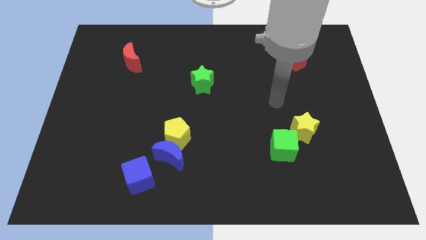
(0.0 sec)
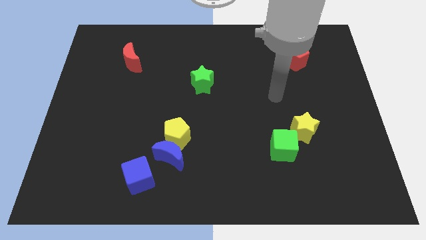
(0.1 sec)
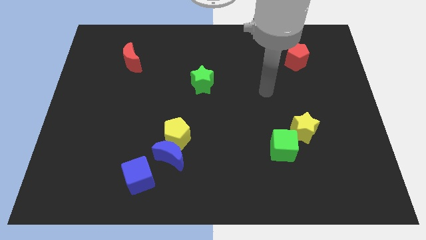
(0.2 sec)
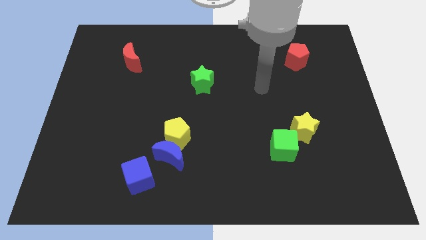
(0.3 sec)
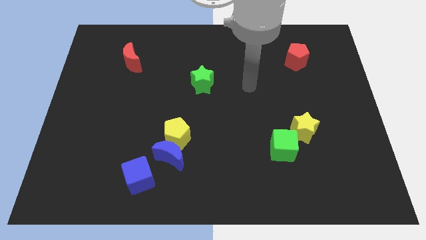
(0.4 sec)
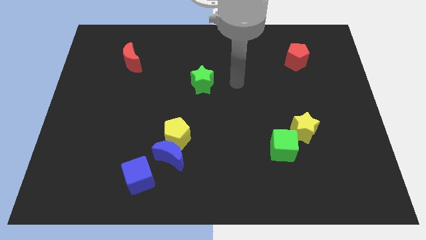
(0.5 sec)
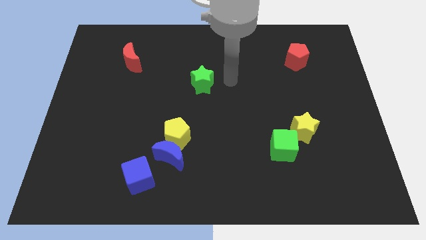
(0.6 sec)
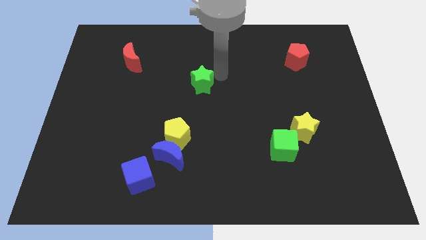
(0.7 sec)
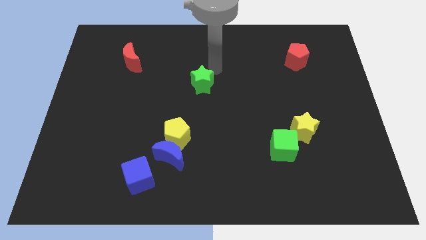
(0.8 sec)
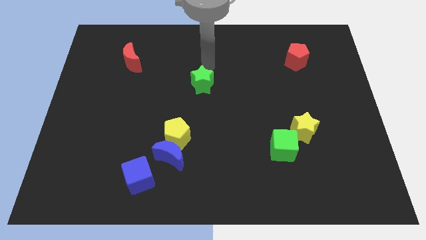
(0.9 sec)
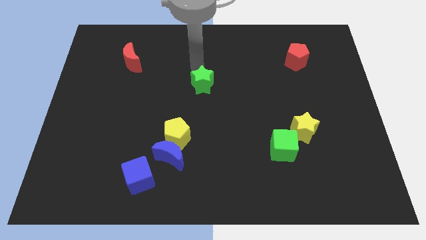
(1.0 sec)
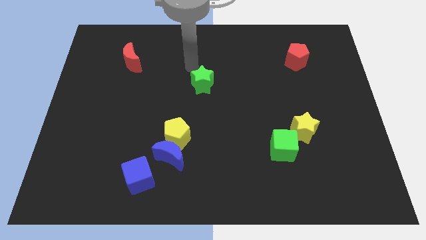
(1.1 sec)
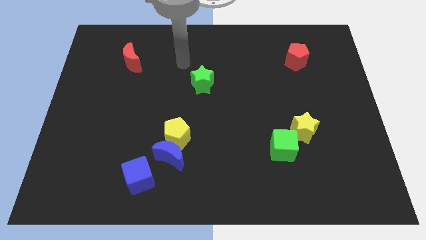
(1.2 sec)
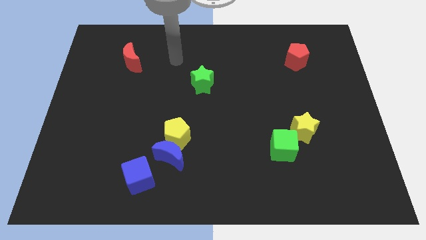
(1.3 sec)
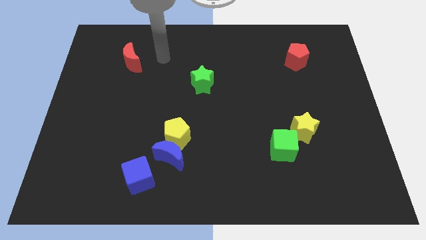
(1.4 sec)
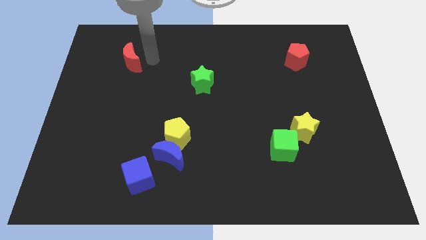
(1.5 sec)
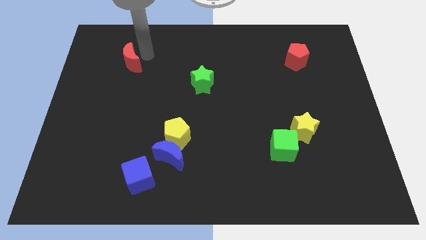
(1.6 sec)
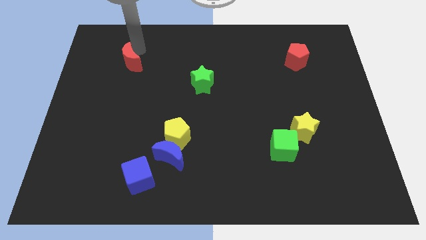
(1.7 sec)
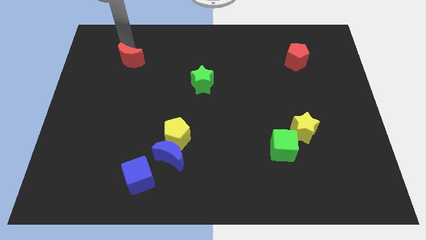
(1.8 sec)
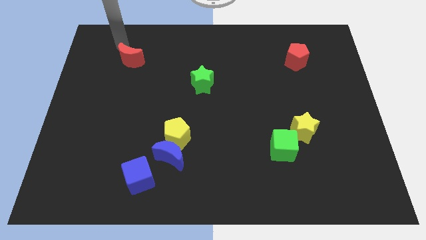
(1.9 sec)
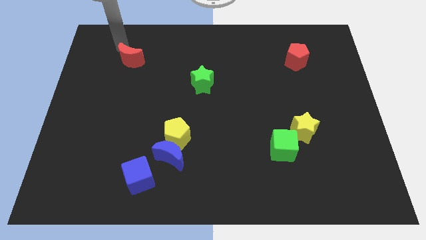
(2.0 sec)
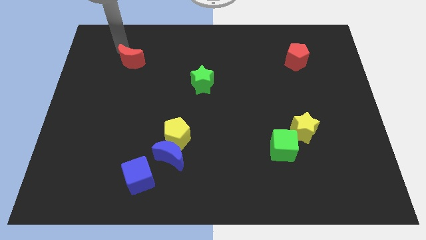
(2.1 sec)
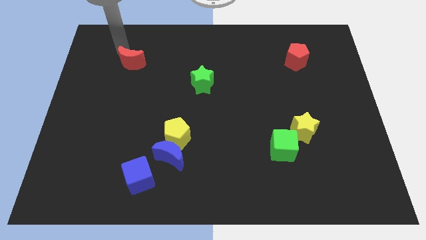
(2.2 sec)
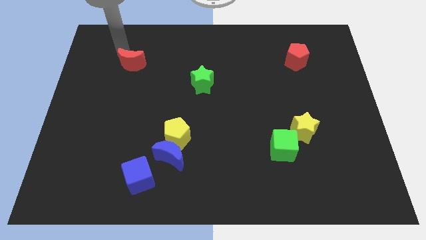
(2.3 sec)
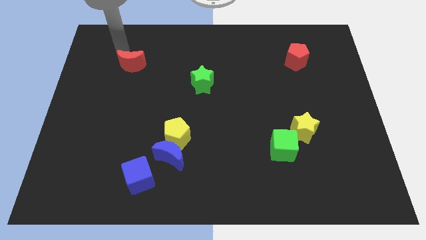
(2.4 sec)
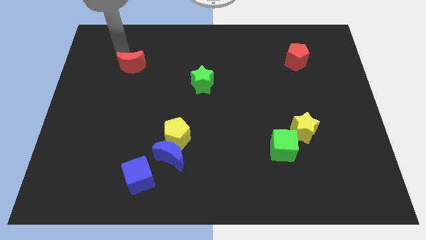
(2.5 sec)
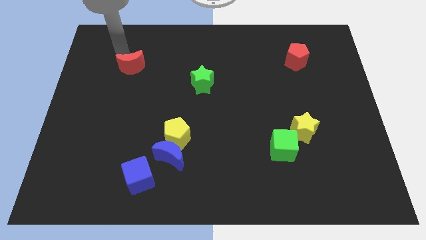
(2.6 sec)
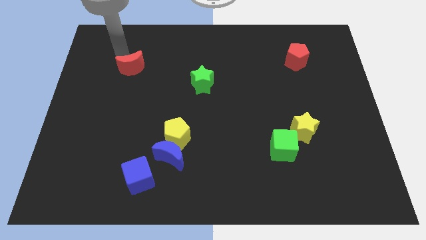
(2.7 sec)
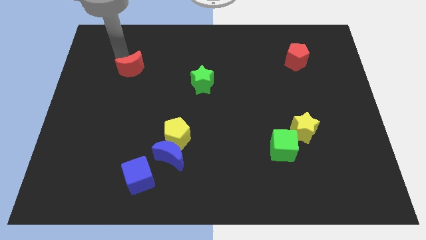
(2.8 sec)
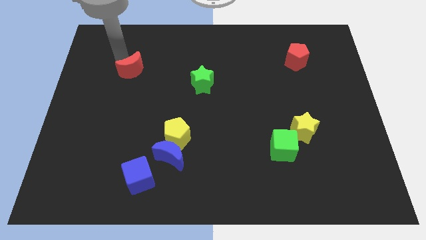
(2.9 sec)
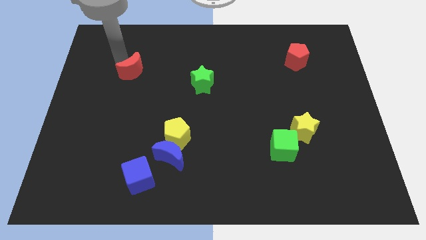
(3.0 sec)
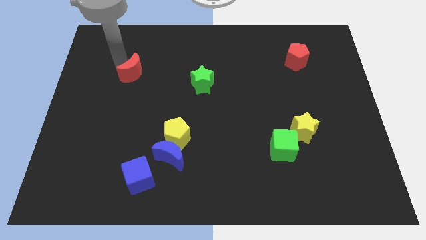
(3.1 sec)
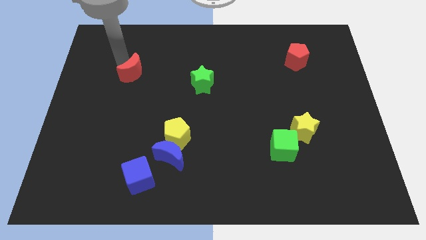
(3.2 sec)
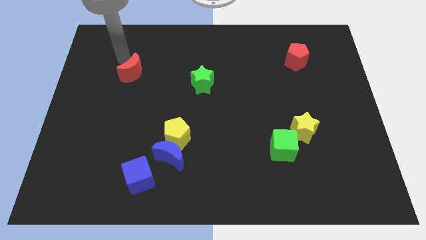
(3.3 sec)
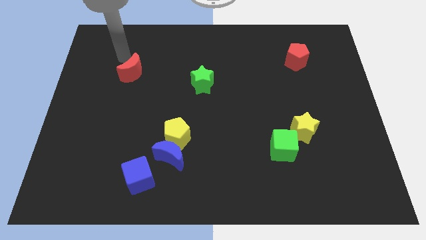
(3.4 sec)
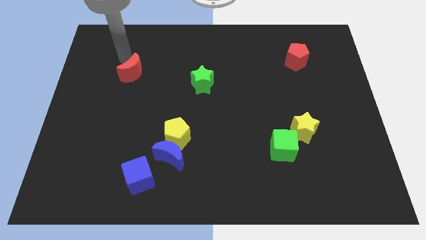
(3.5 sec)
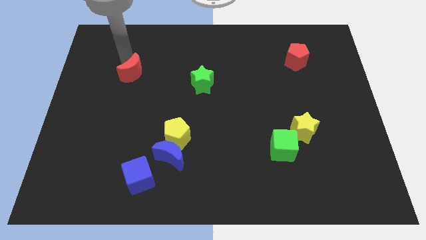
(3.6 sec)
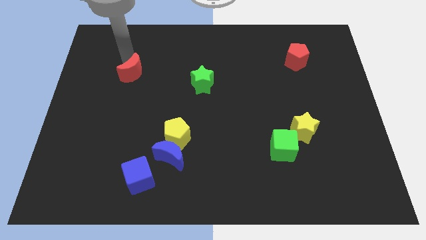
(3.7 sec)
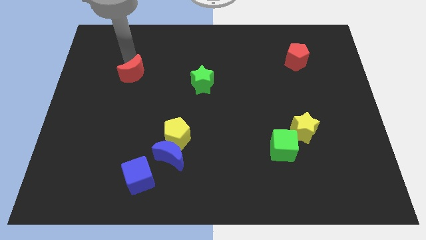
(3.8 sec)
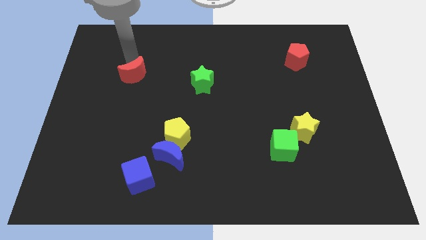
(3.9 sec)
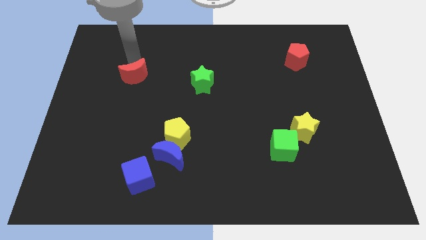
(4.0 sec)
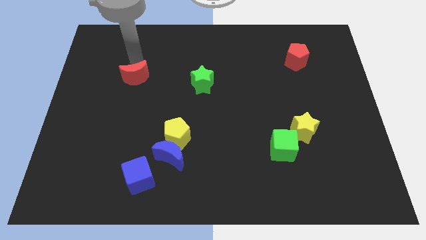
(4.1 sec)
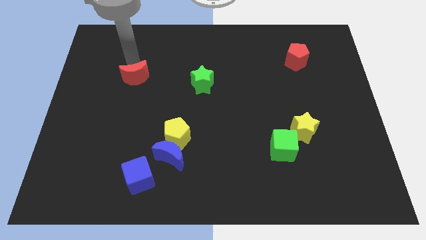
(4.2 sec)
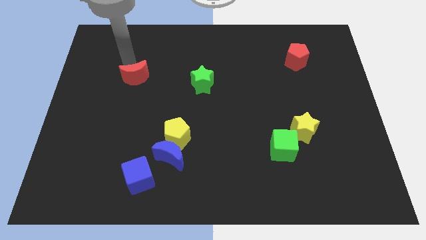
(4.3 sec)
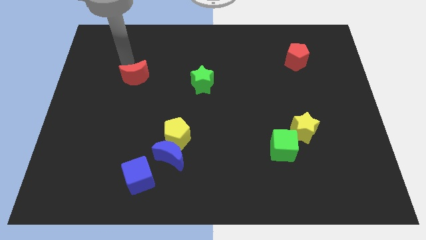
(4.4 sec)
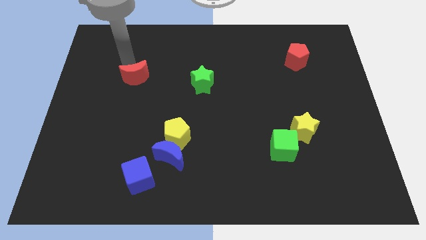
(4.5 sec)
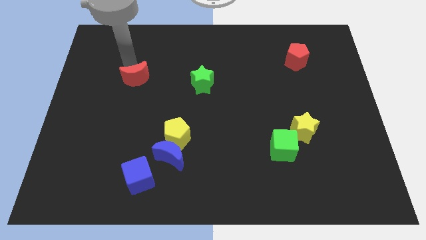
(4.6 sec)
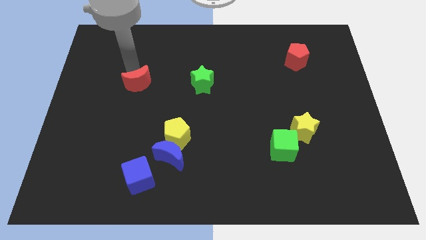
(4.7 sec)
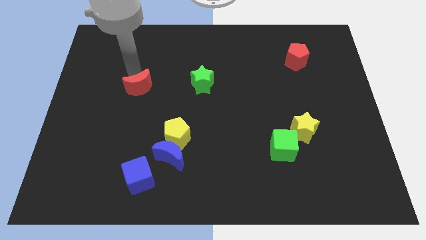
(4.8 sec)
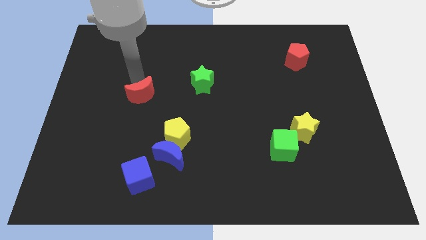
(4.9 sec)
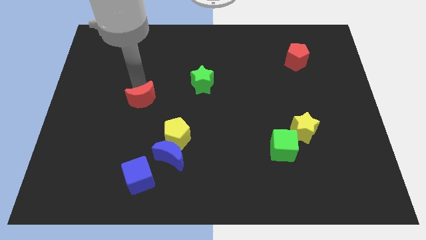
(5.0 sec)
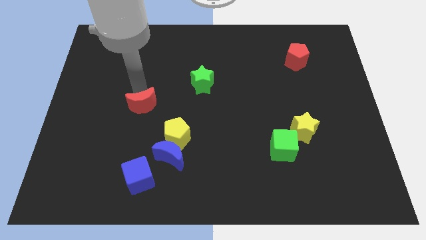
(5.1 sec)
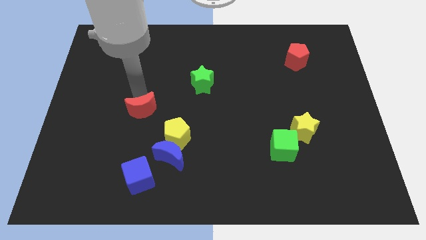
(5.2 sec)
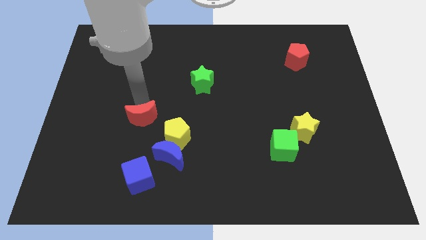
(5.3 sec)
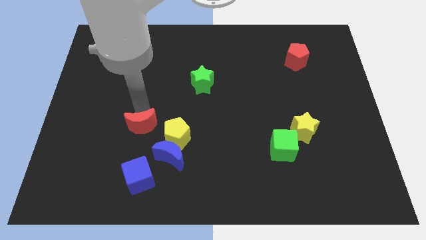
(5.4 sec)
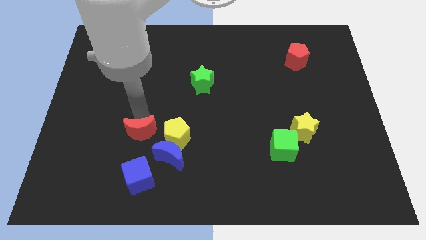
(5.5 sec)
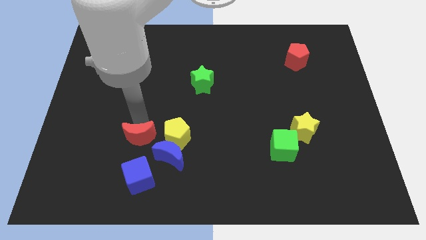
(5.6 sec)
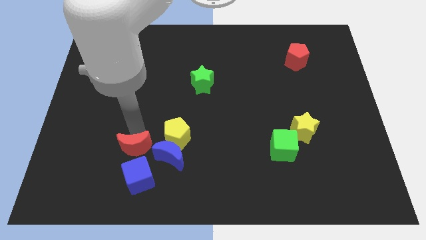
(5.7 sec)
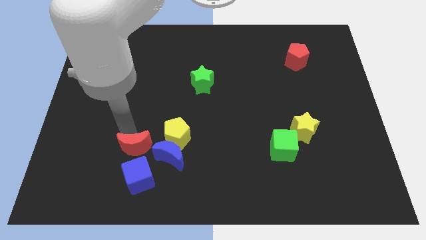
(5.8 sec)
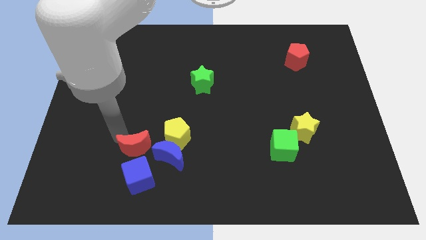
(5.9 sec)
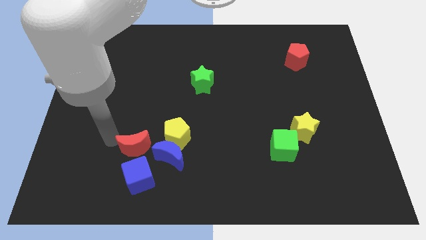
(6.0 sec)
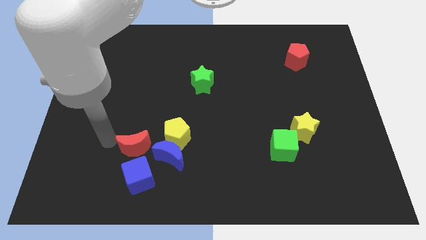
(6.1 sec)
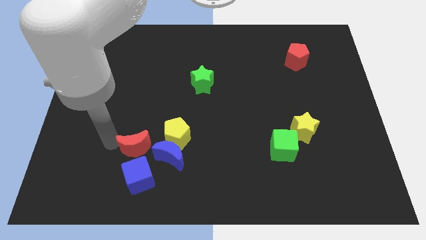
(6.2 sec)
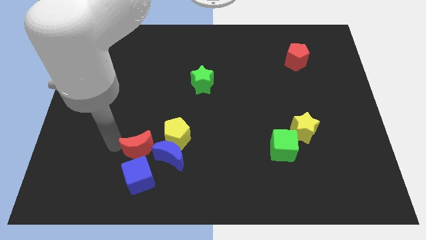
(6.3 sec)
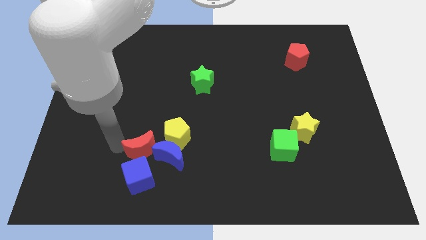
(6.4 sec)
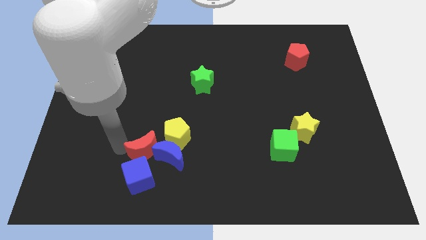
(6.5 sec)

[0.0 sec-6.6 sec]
slide the red moon close to the blue moon

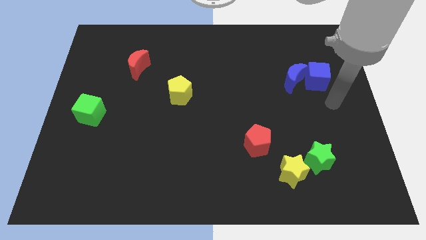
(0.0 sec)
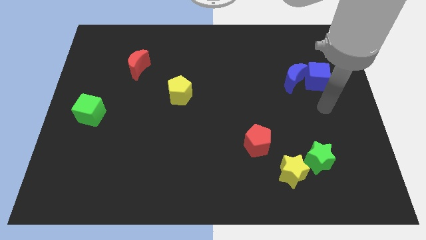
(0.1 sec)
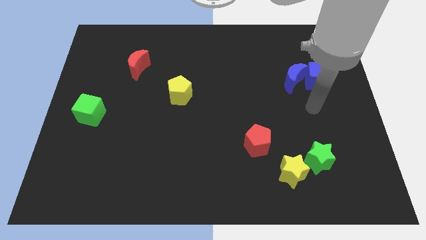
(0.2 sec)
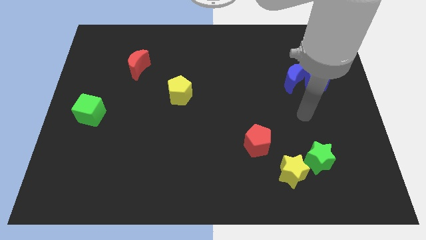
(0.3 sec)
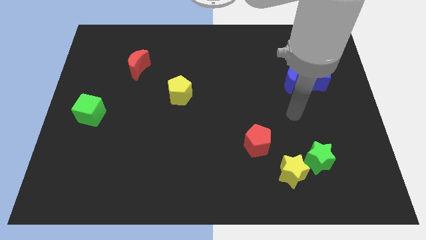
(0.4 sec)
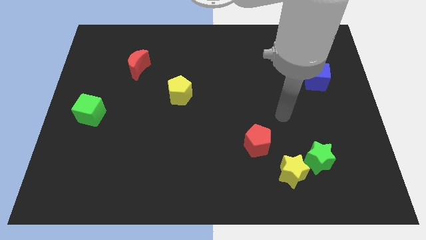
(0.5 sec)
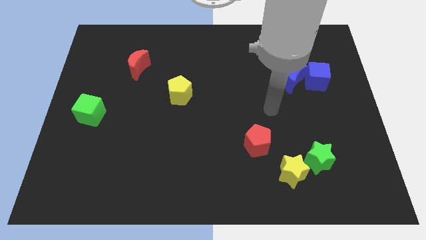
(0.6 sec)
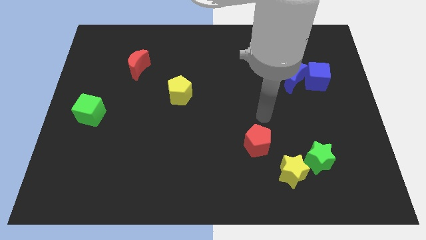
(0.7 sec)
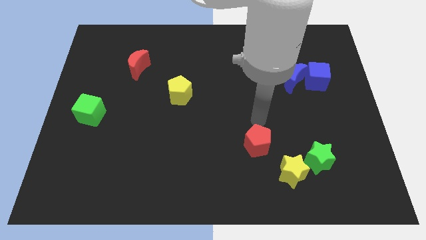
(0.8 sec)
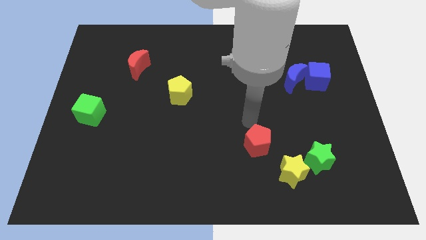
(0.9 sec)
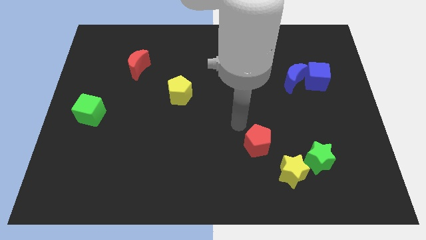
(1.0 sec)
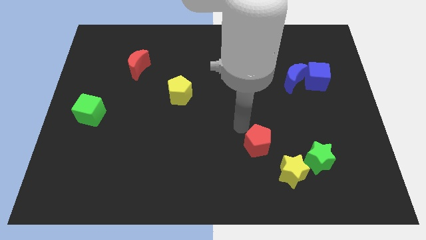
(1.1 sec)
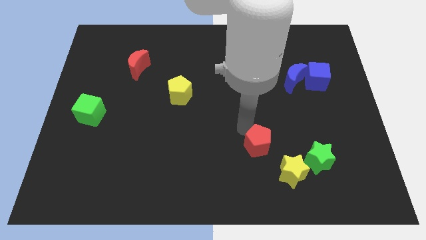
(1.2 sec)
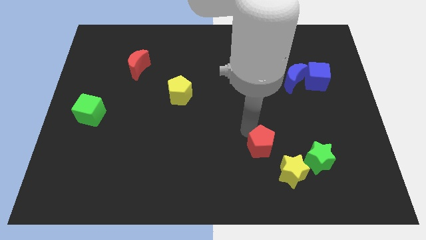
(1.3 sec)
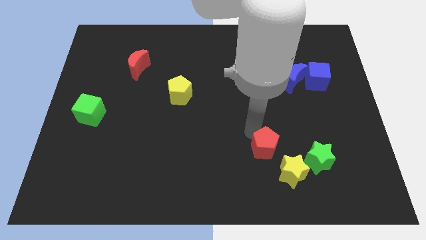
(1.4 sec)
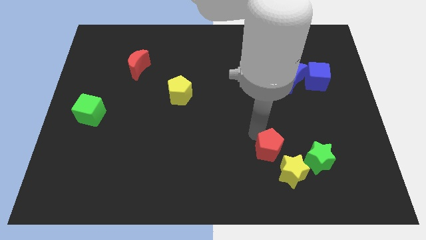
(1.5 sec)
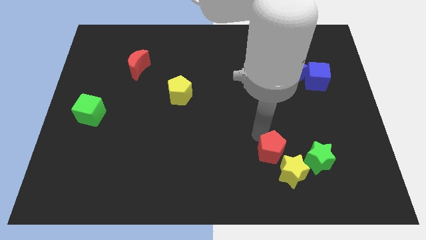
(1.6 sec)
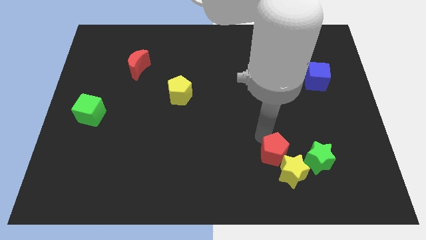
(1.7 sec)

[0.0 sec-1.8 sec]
move the red pentagon towards the yellow star
